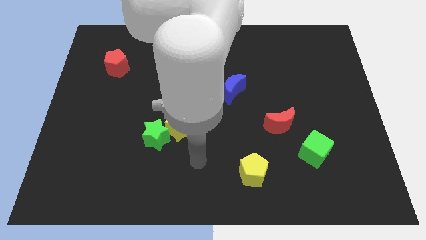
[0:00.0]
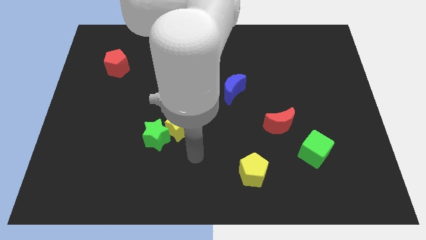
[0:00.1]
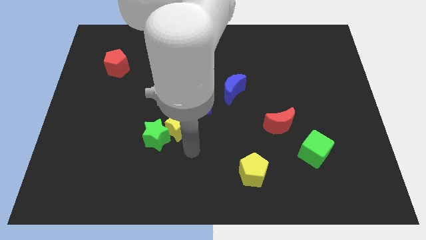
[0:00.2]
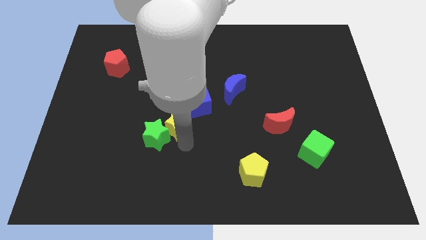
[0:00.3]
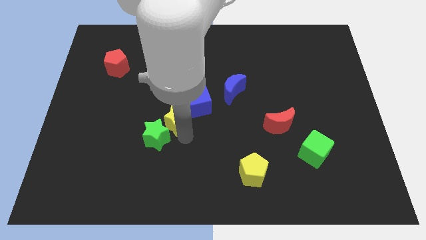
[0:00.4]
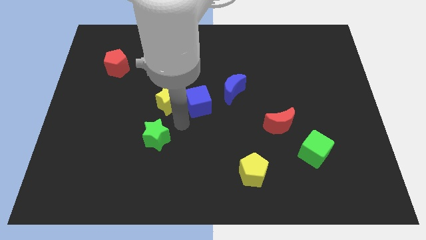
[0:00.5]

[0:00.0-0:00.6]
separate the green star from the yellow star

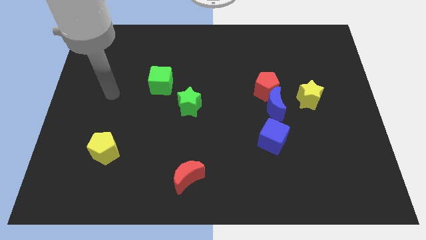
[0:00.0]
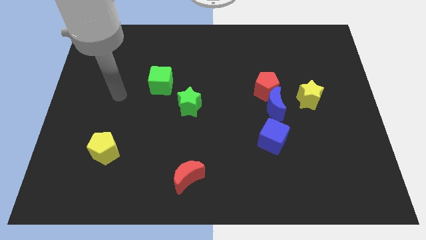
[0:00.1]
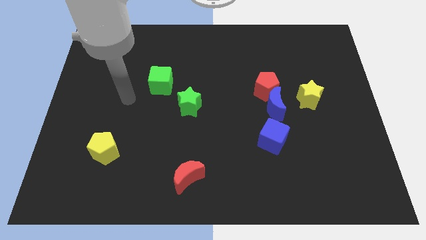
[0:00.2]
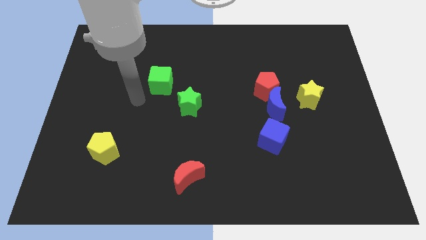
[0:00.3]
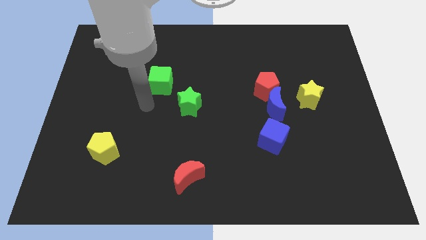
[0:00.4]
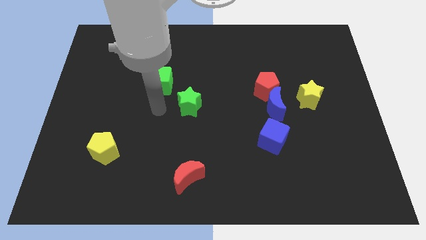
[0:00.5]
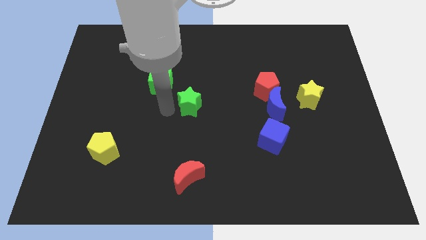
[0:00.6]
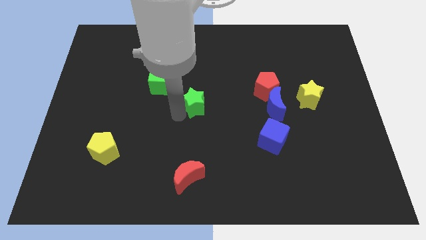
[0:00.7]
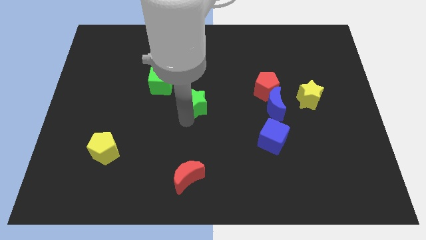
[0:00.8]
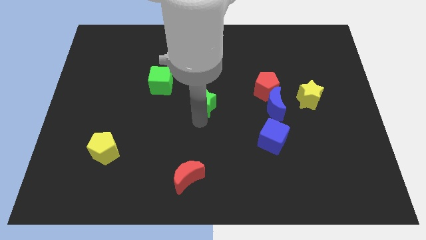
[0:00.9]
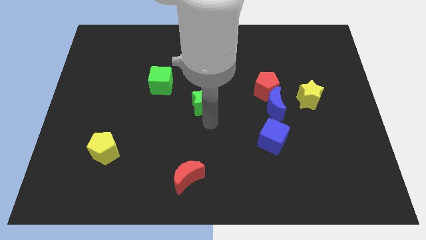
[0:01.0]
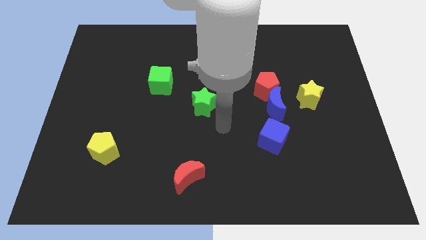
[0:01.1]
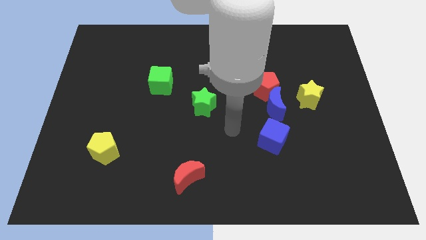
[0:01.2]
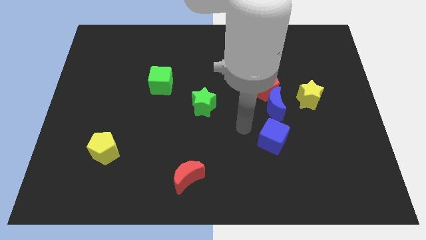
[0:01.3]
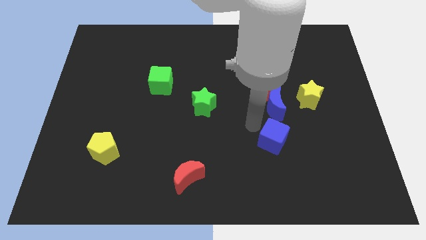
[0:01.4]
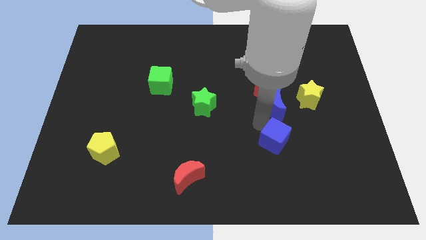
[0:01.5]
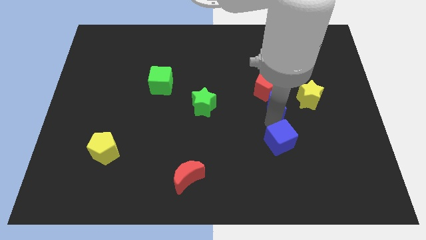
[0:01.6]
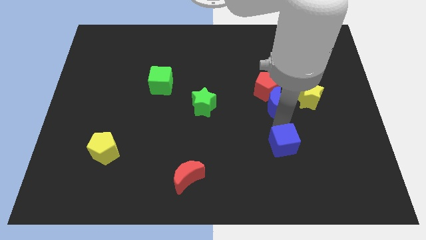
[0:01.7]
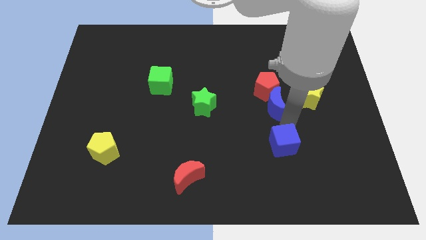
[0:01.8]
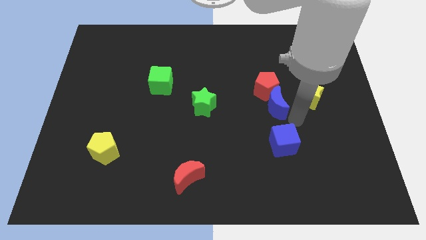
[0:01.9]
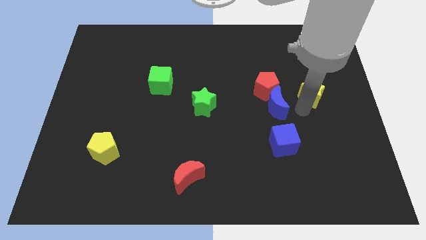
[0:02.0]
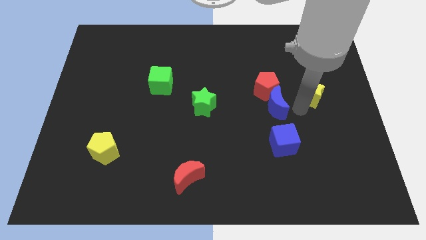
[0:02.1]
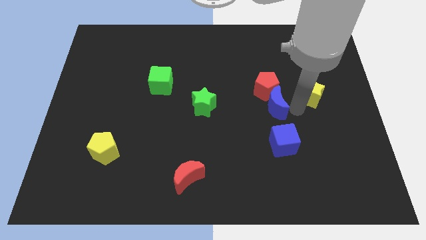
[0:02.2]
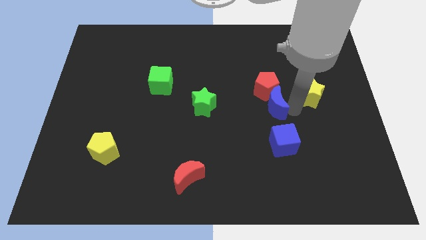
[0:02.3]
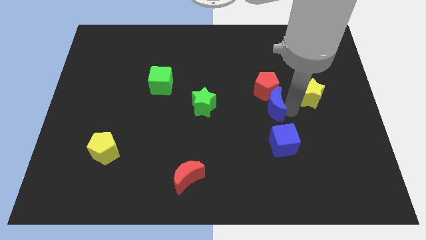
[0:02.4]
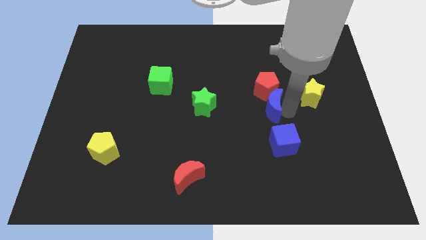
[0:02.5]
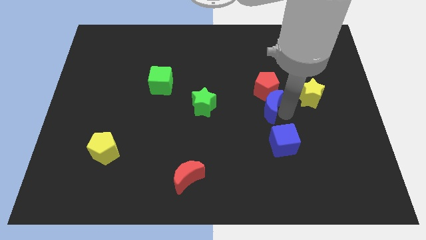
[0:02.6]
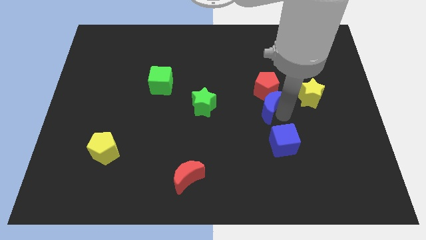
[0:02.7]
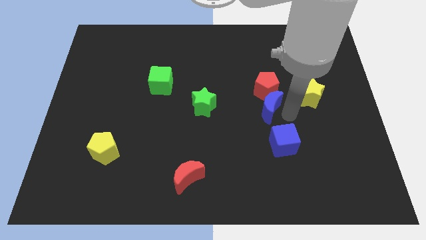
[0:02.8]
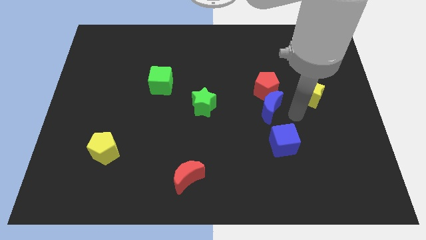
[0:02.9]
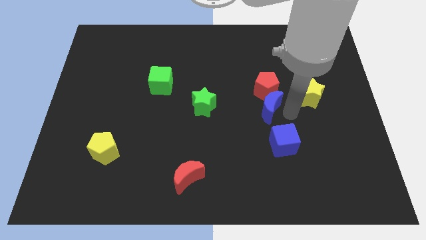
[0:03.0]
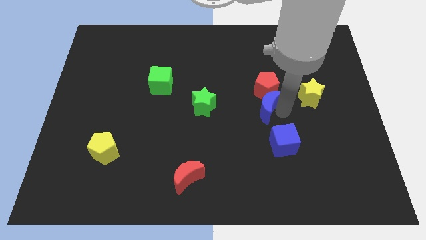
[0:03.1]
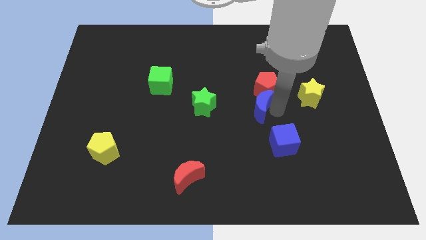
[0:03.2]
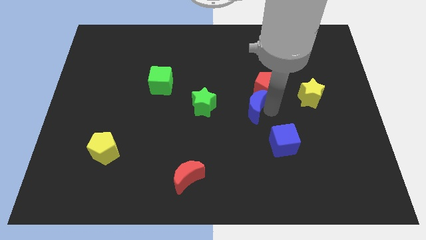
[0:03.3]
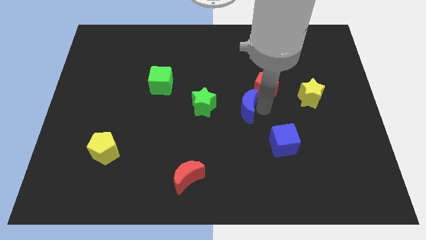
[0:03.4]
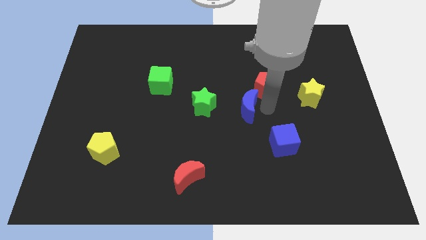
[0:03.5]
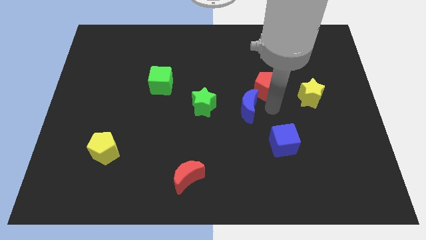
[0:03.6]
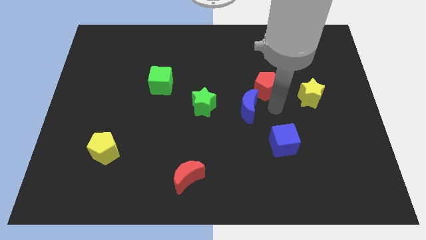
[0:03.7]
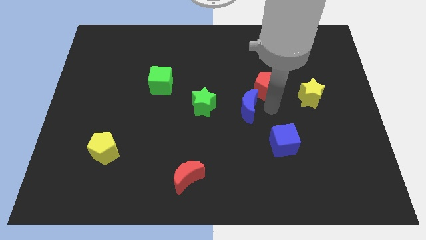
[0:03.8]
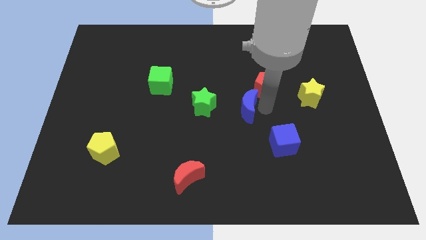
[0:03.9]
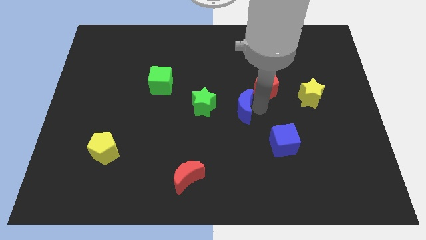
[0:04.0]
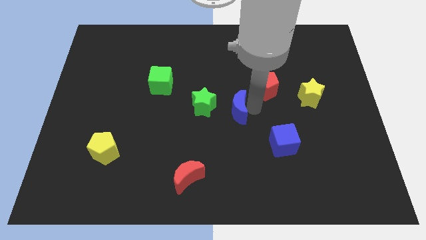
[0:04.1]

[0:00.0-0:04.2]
move the blue moon away from the red pentagon, yellow star, and blue cube

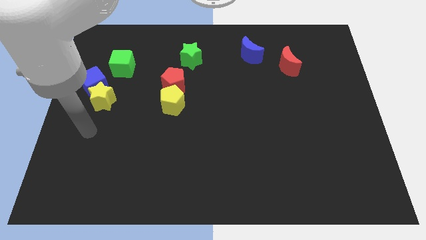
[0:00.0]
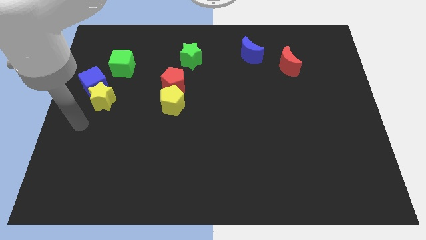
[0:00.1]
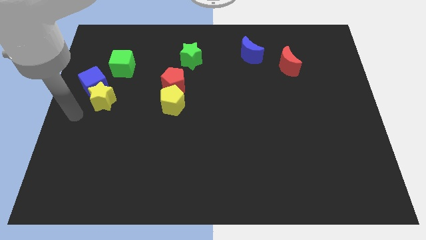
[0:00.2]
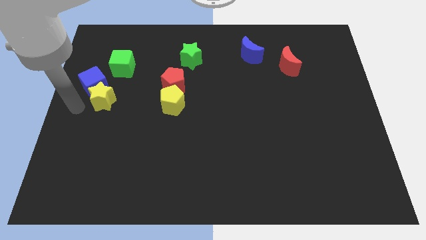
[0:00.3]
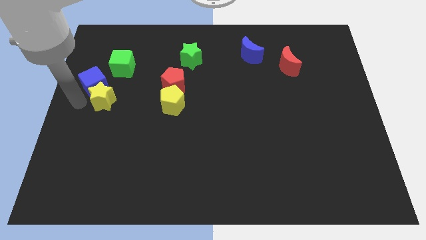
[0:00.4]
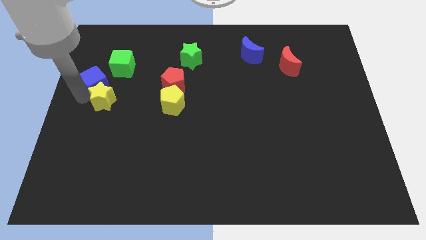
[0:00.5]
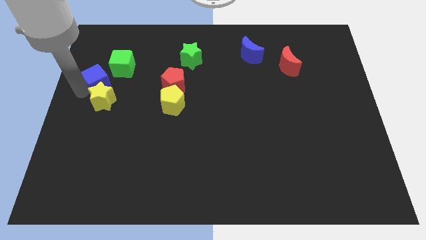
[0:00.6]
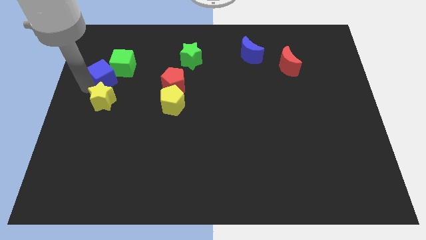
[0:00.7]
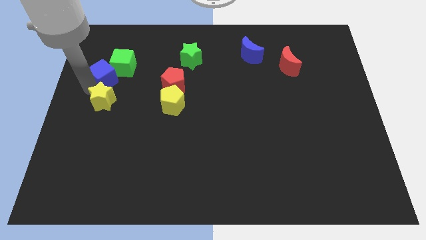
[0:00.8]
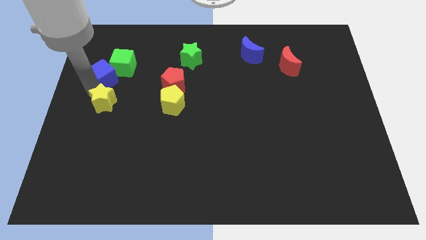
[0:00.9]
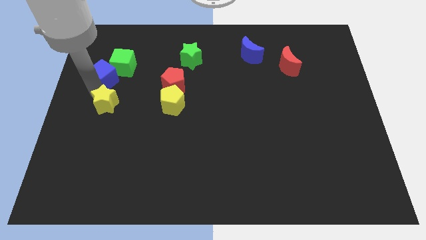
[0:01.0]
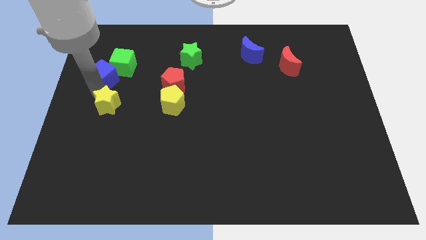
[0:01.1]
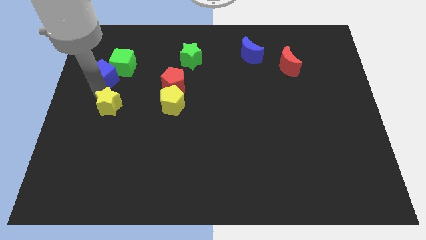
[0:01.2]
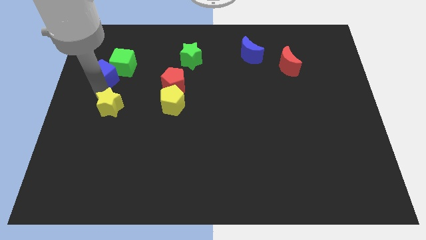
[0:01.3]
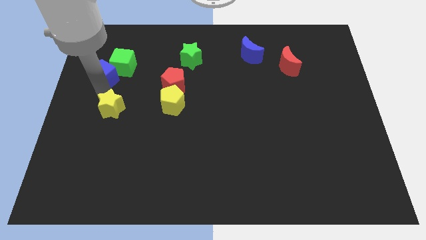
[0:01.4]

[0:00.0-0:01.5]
move the yellow star away from the blue cube

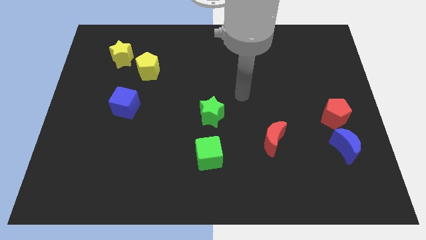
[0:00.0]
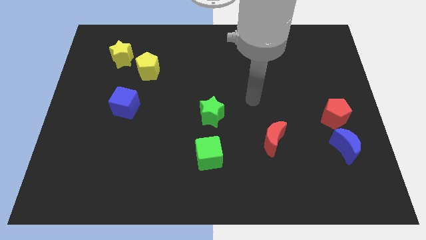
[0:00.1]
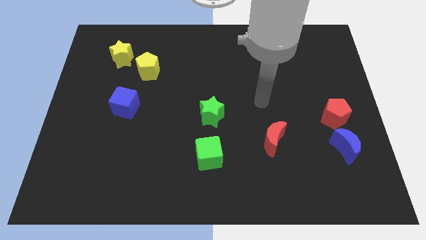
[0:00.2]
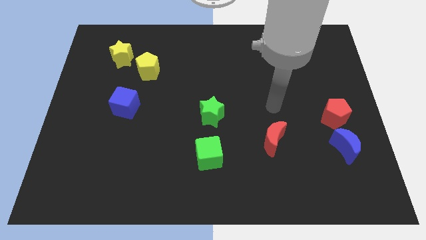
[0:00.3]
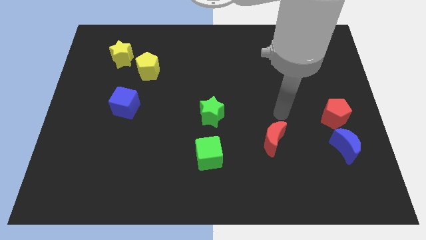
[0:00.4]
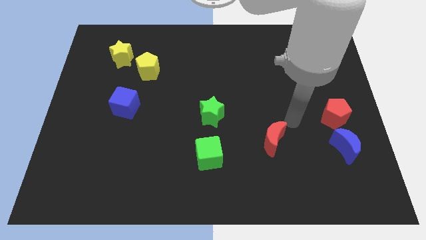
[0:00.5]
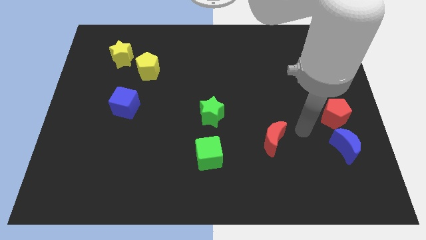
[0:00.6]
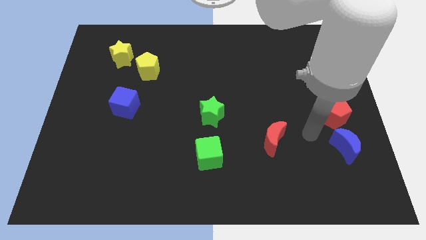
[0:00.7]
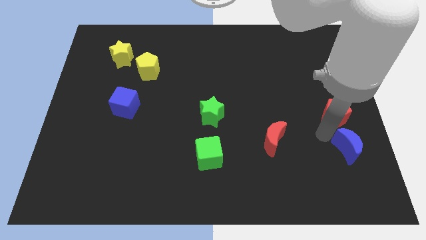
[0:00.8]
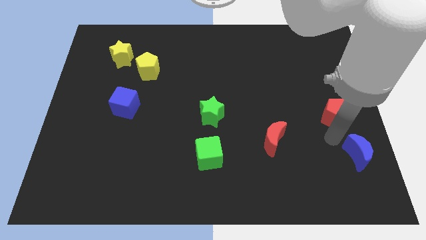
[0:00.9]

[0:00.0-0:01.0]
pull the red pentagon apart from the blue moon

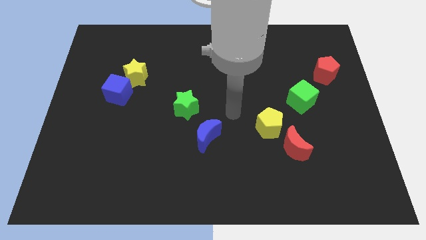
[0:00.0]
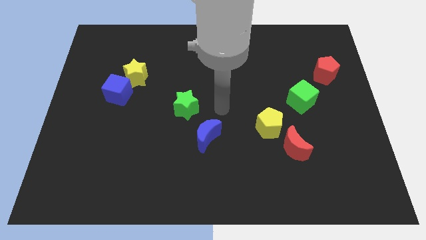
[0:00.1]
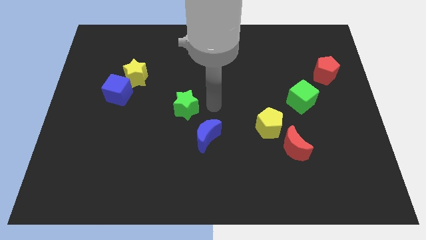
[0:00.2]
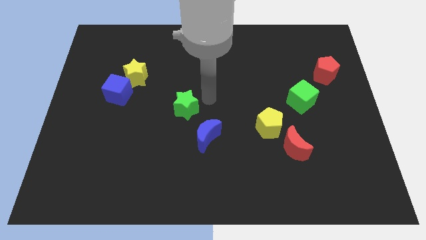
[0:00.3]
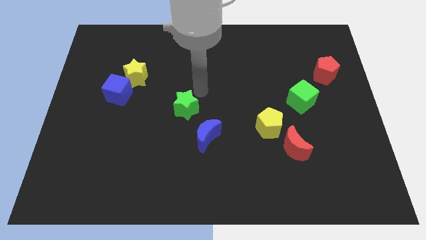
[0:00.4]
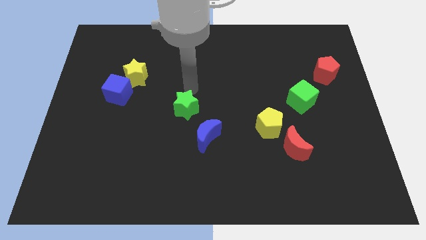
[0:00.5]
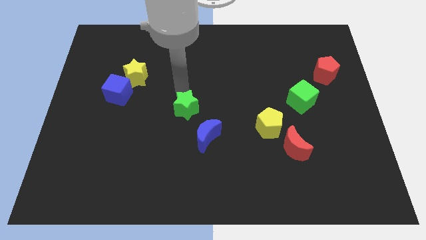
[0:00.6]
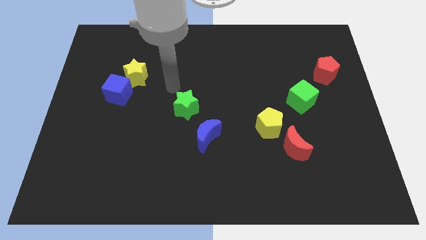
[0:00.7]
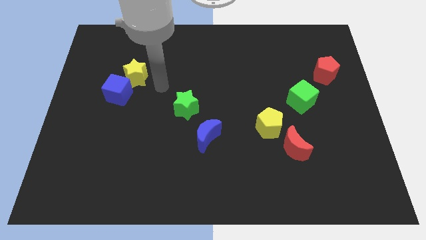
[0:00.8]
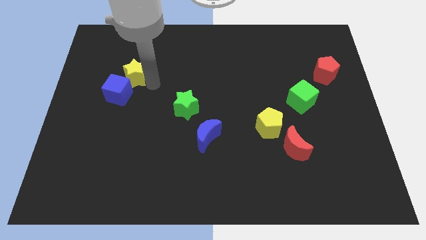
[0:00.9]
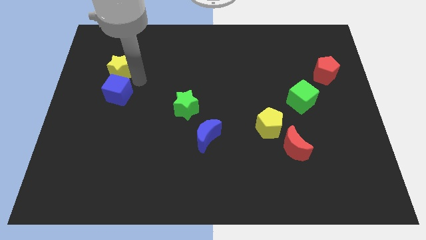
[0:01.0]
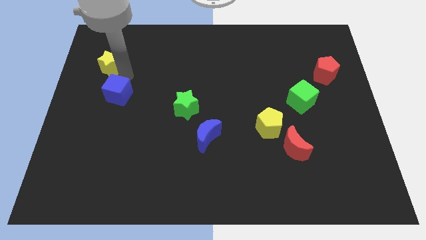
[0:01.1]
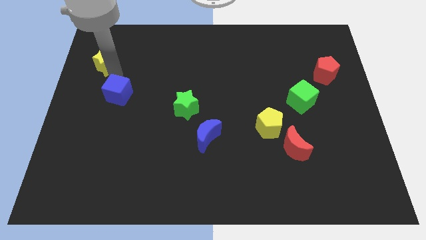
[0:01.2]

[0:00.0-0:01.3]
pull the blue cube apart from the yellow star

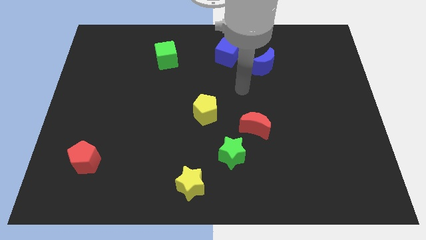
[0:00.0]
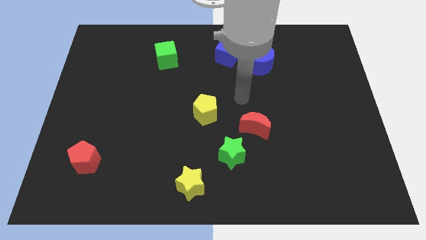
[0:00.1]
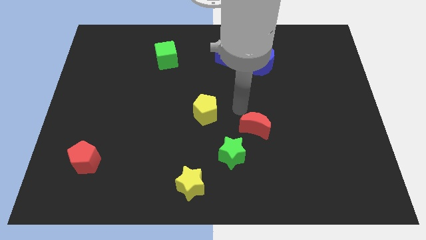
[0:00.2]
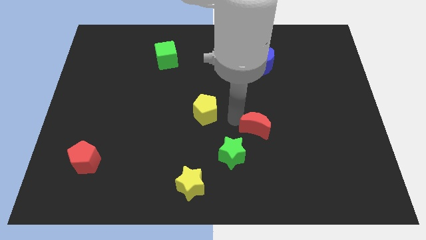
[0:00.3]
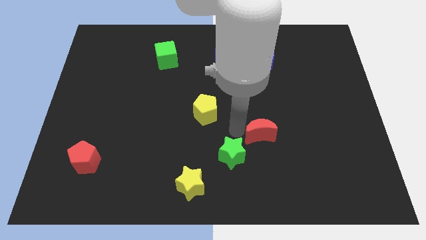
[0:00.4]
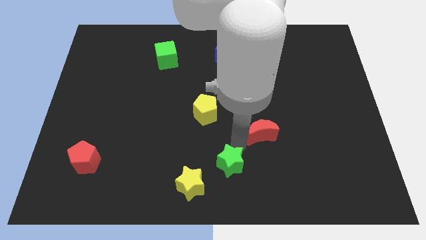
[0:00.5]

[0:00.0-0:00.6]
pull the red moon apart from the green star

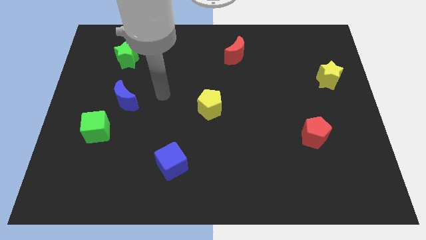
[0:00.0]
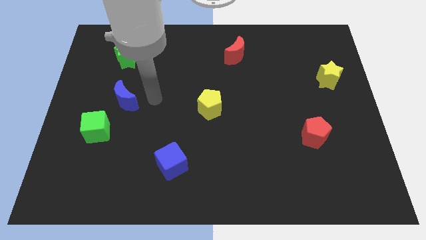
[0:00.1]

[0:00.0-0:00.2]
move the blue moon away from the green cube
